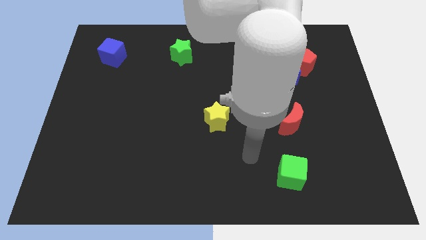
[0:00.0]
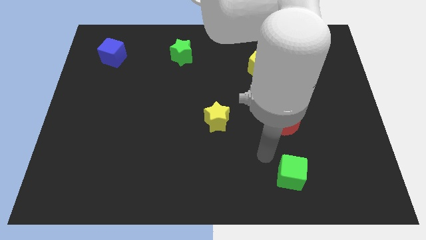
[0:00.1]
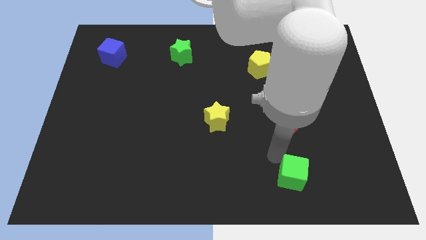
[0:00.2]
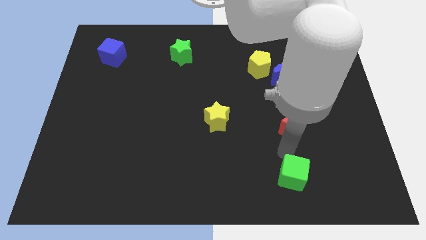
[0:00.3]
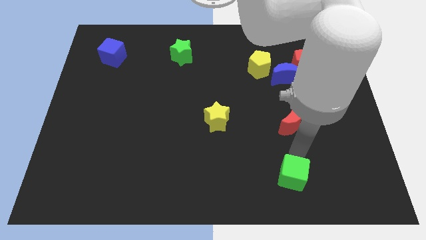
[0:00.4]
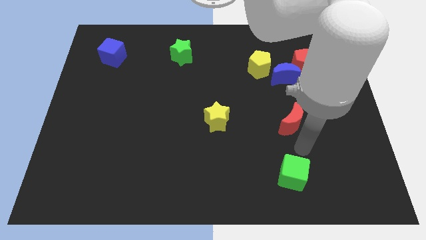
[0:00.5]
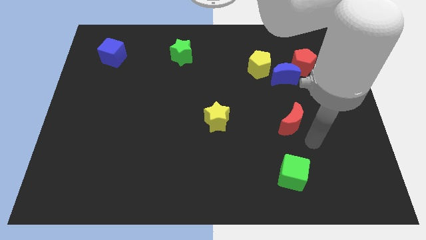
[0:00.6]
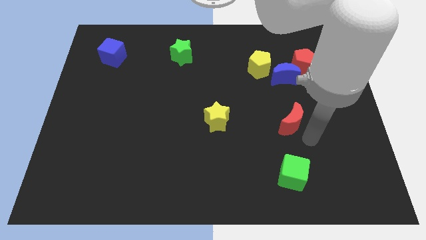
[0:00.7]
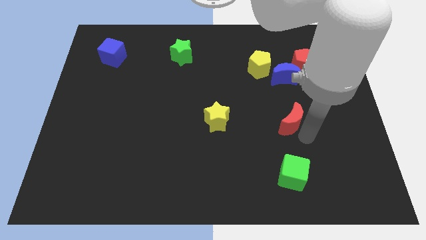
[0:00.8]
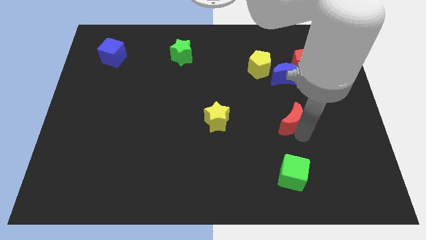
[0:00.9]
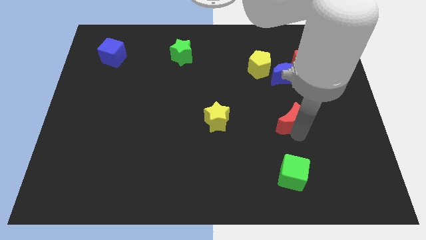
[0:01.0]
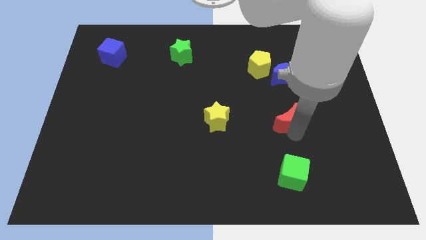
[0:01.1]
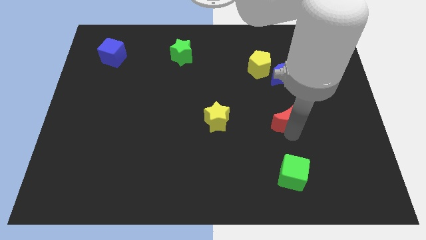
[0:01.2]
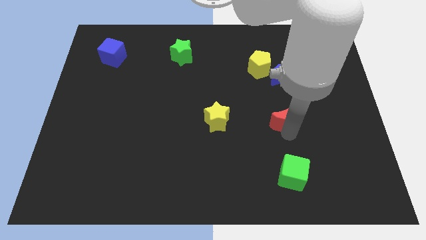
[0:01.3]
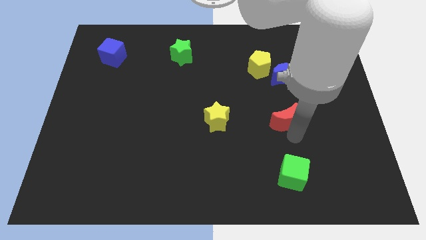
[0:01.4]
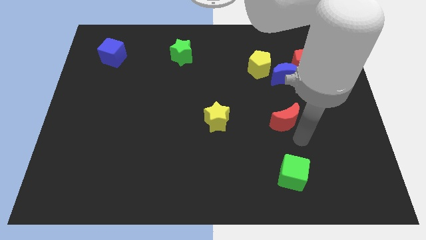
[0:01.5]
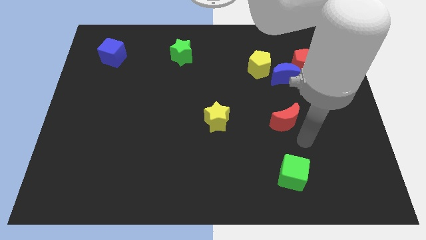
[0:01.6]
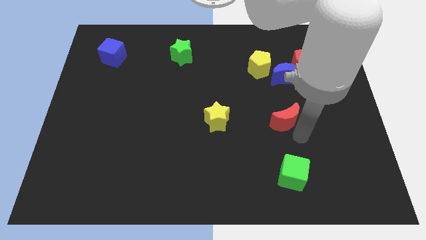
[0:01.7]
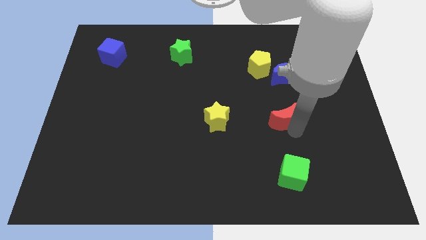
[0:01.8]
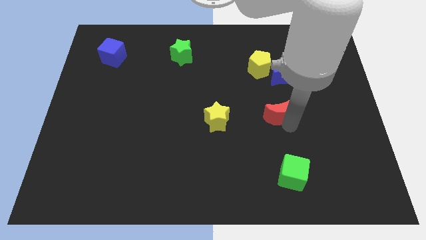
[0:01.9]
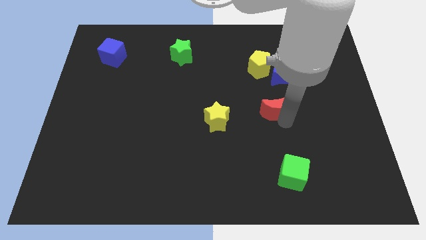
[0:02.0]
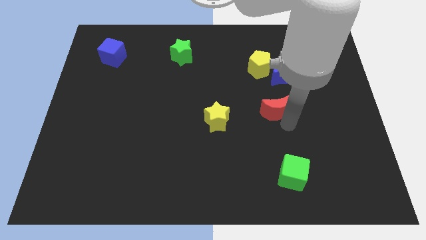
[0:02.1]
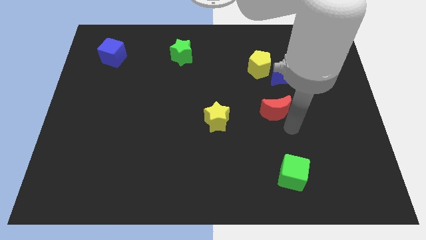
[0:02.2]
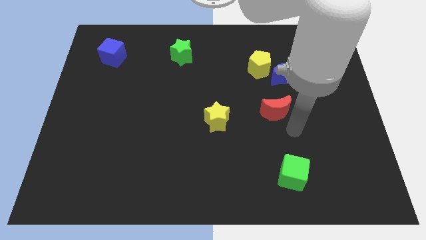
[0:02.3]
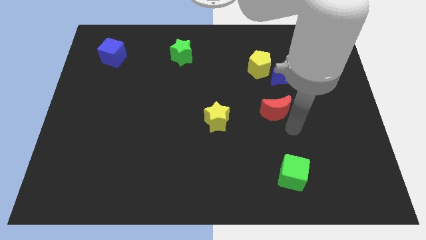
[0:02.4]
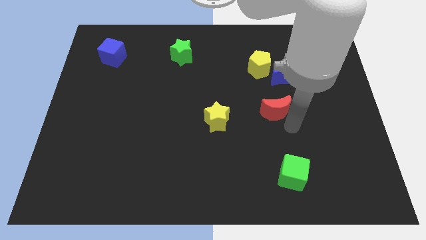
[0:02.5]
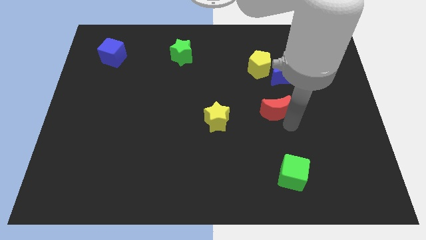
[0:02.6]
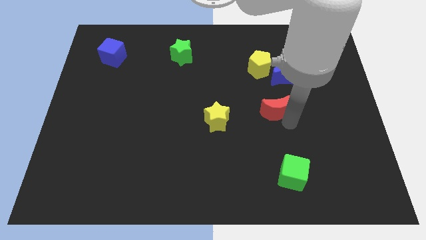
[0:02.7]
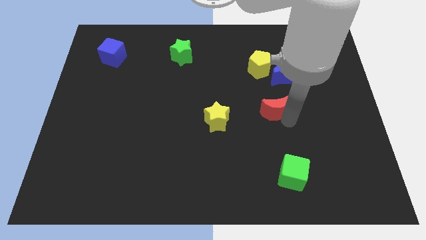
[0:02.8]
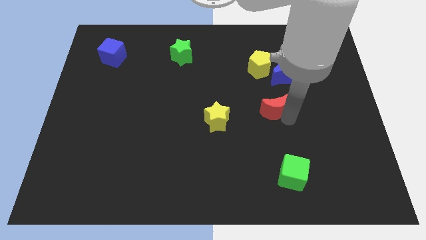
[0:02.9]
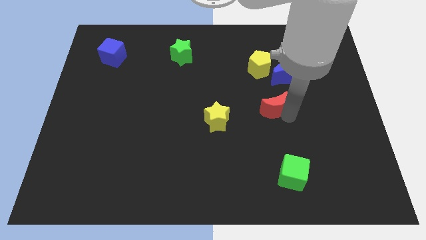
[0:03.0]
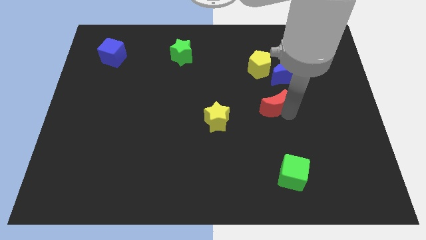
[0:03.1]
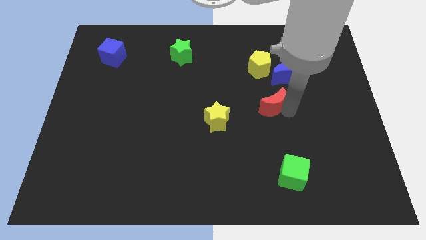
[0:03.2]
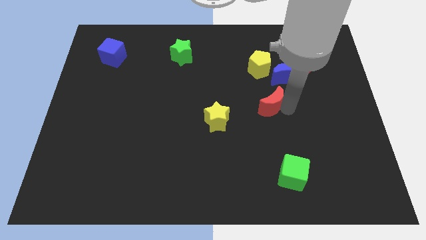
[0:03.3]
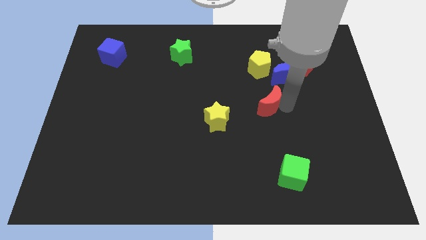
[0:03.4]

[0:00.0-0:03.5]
slightly slide the red moon up and left

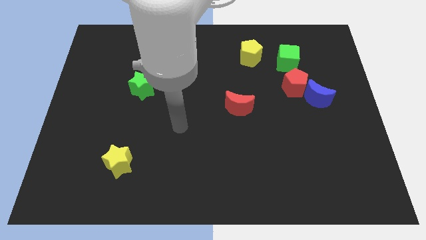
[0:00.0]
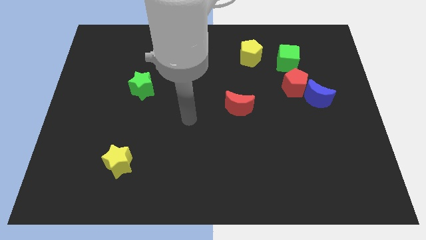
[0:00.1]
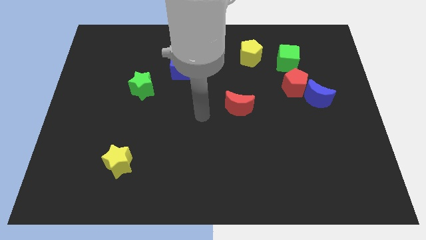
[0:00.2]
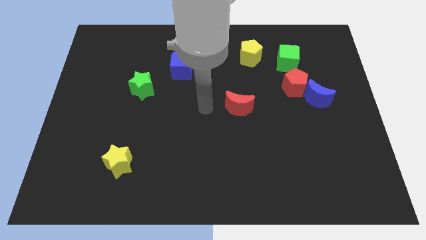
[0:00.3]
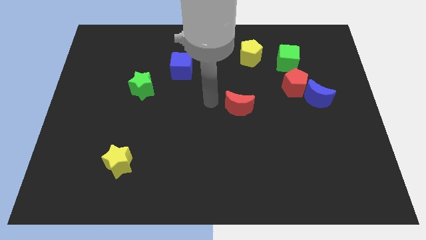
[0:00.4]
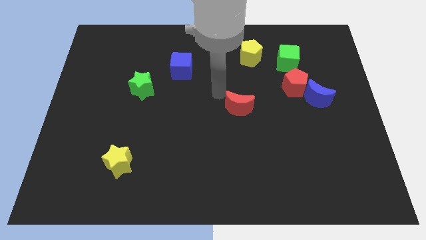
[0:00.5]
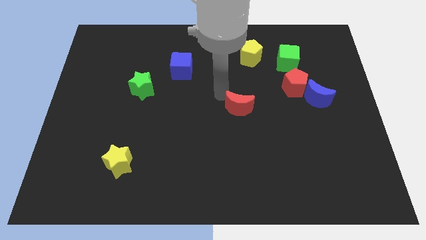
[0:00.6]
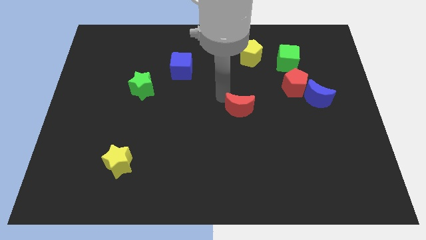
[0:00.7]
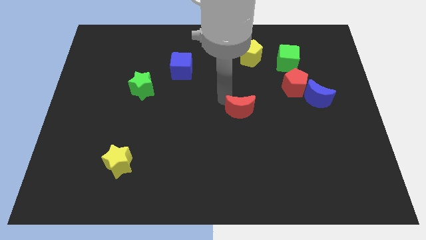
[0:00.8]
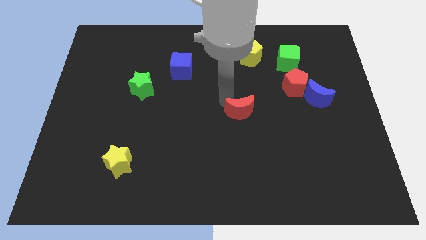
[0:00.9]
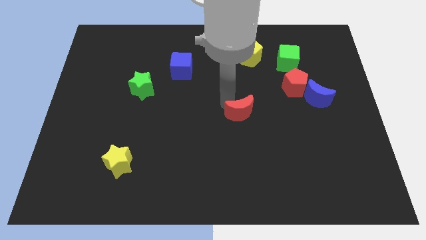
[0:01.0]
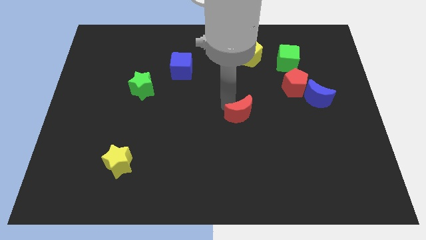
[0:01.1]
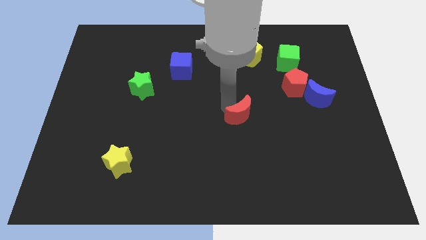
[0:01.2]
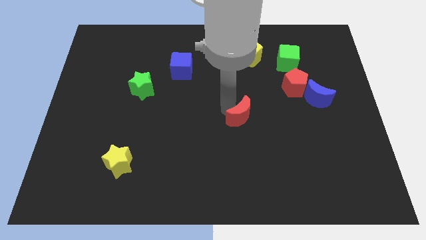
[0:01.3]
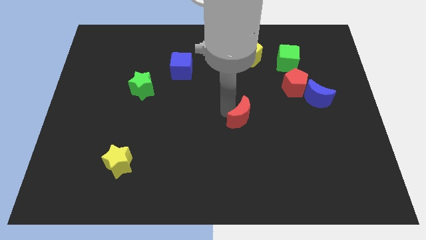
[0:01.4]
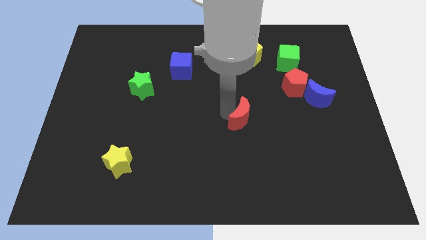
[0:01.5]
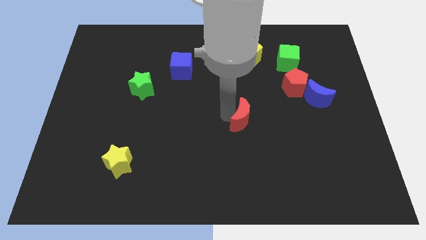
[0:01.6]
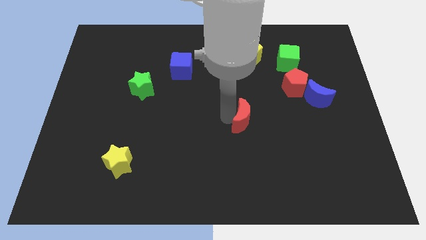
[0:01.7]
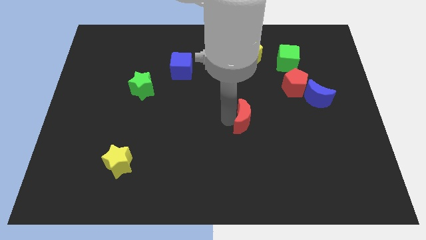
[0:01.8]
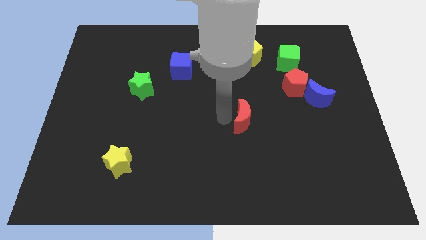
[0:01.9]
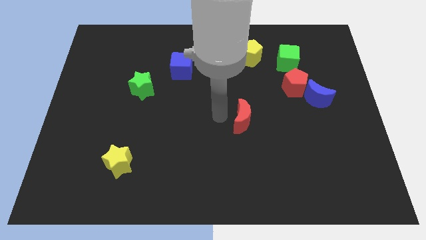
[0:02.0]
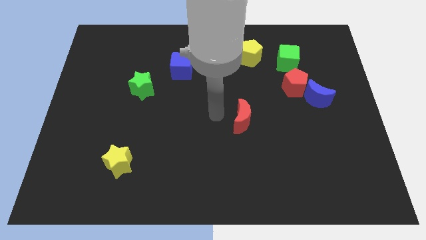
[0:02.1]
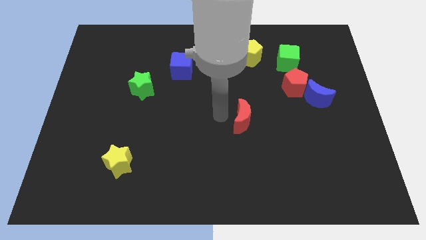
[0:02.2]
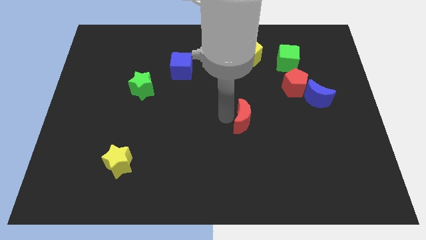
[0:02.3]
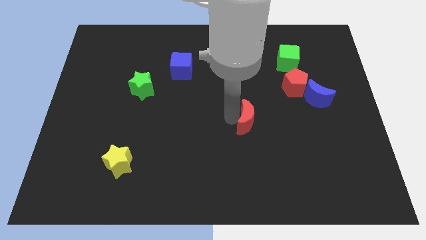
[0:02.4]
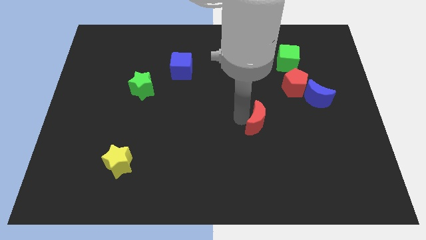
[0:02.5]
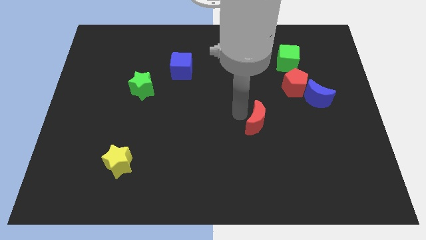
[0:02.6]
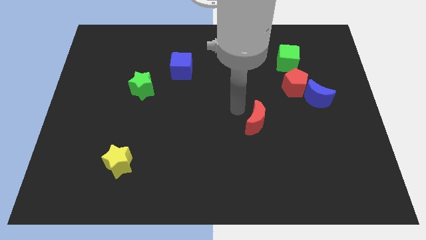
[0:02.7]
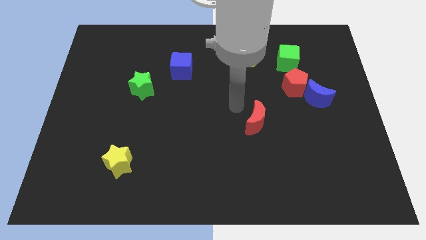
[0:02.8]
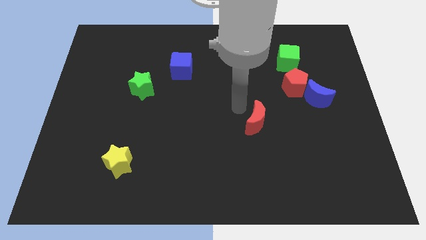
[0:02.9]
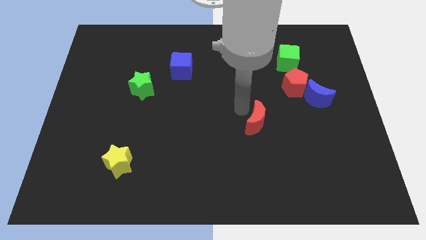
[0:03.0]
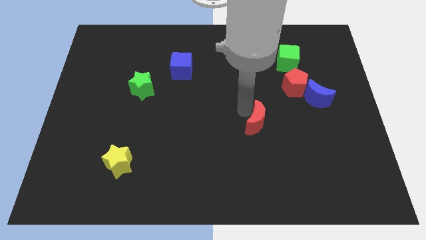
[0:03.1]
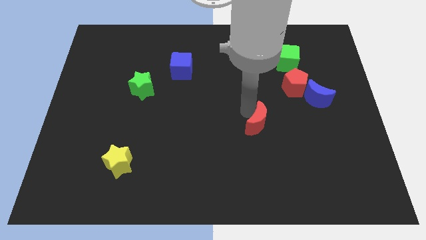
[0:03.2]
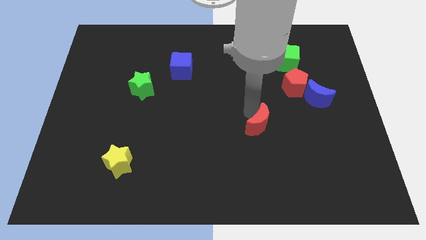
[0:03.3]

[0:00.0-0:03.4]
slightly push the red moon downwards and to the right diagonally

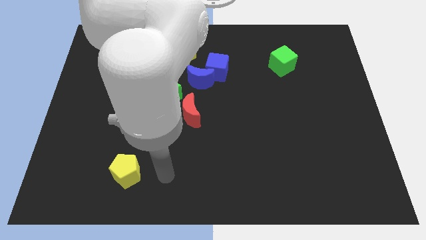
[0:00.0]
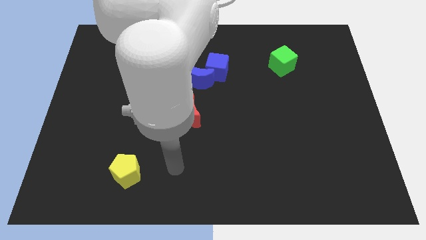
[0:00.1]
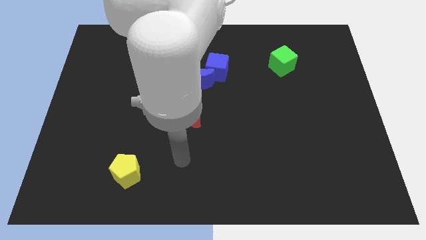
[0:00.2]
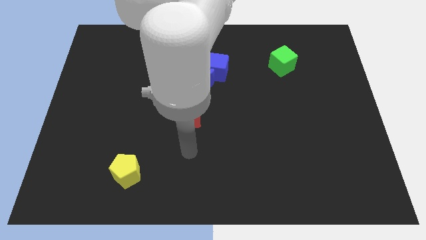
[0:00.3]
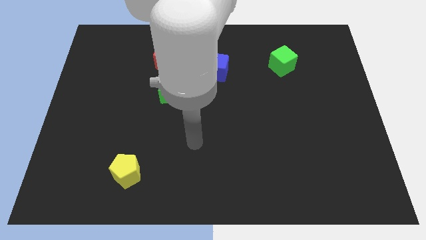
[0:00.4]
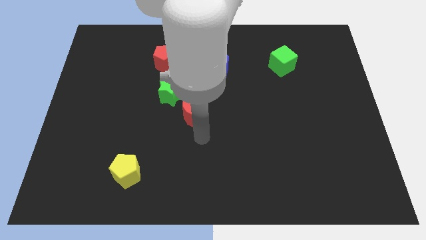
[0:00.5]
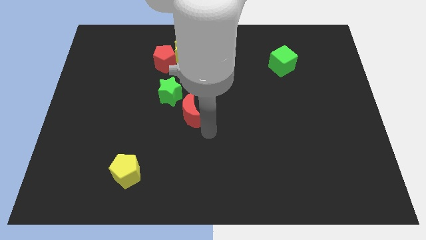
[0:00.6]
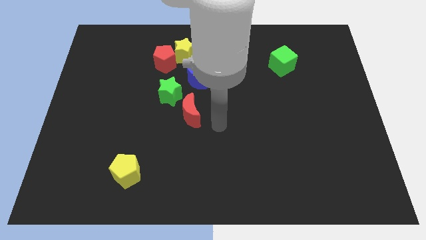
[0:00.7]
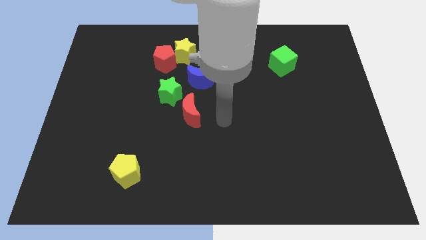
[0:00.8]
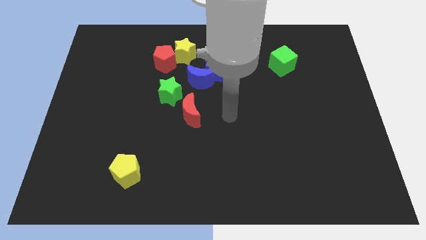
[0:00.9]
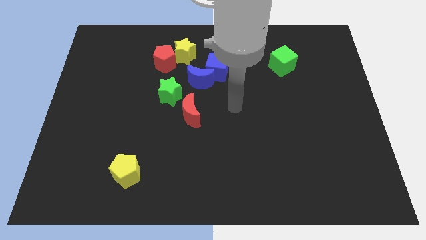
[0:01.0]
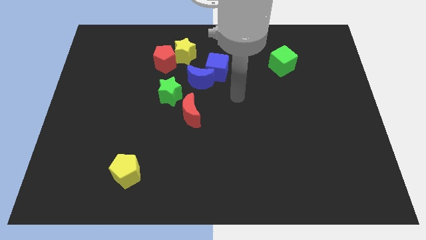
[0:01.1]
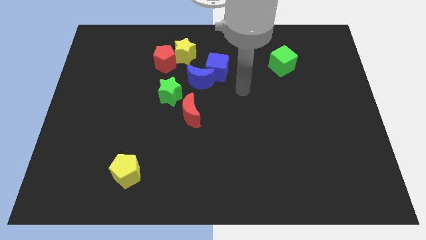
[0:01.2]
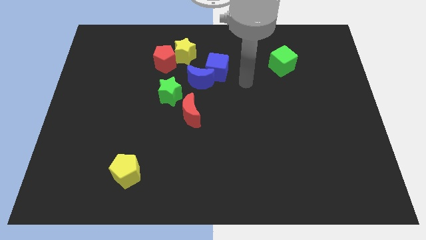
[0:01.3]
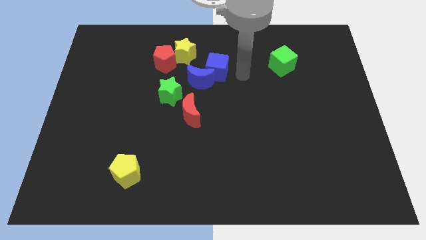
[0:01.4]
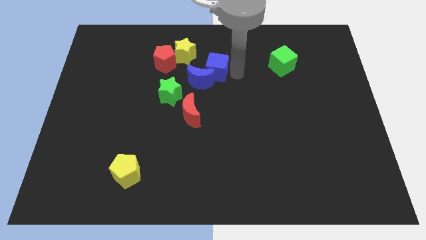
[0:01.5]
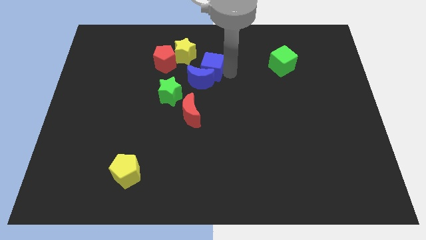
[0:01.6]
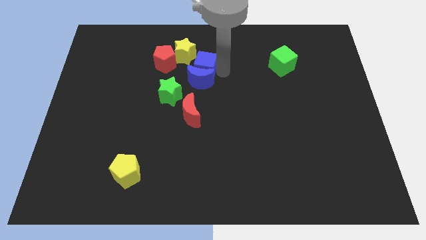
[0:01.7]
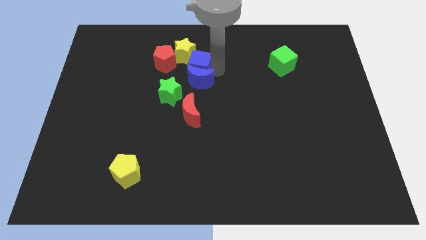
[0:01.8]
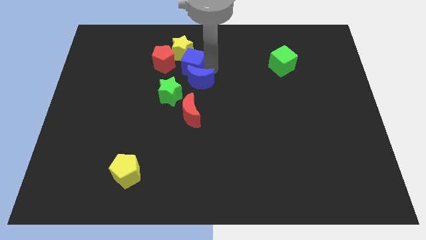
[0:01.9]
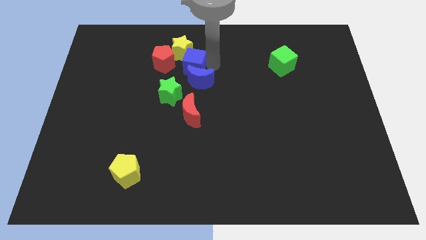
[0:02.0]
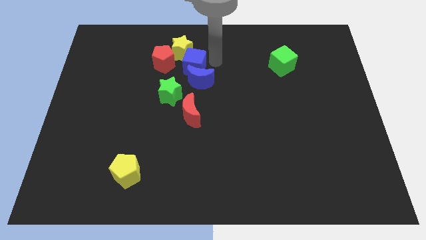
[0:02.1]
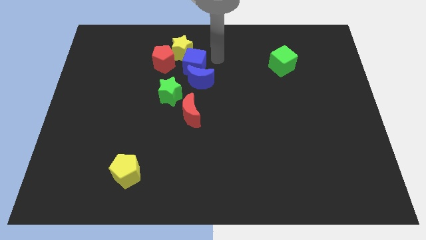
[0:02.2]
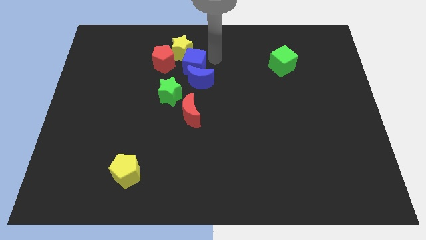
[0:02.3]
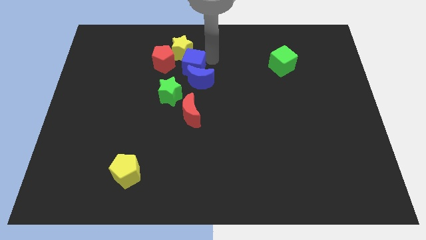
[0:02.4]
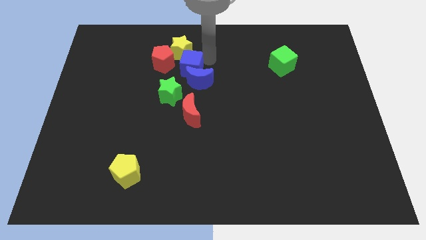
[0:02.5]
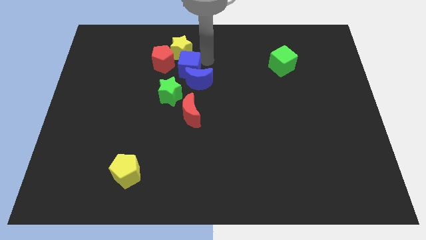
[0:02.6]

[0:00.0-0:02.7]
slightly move the blue cube left
